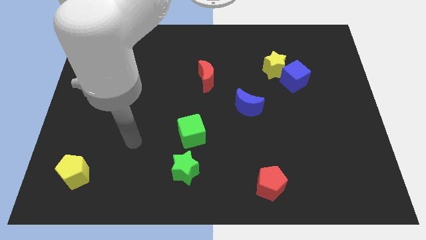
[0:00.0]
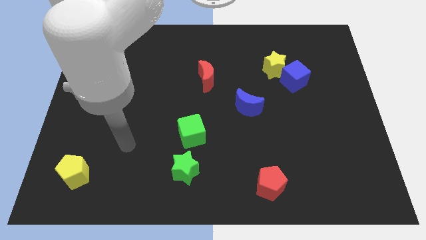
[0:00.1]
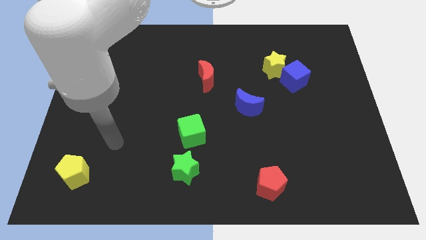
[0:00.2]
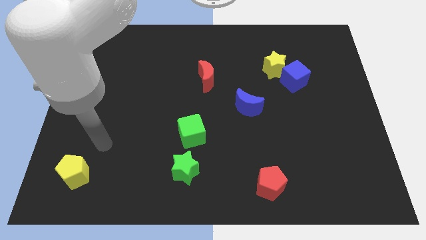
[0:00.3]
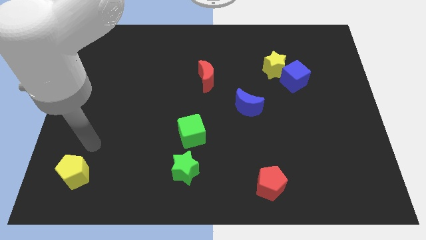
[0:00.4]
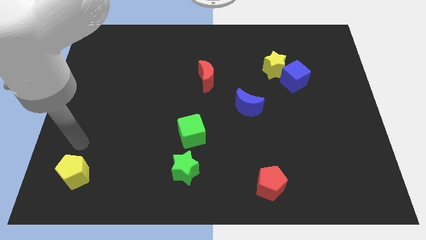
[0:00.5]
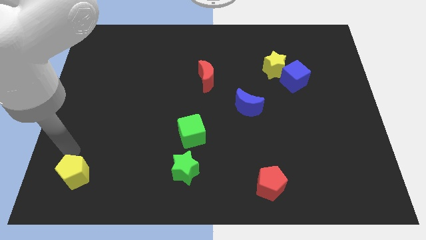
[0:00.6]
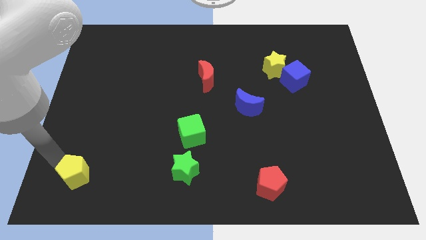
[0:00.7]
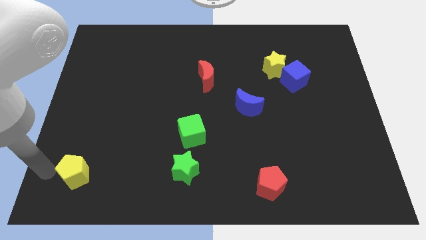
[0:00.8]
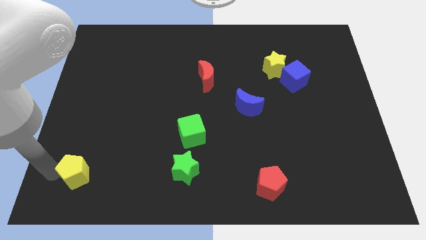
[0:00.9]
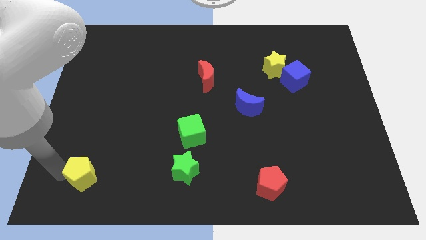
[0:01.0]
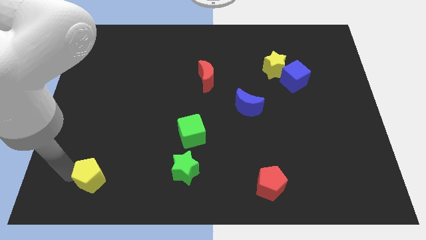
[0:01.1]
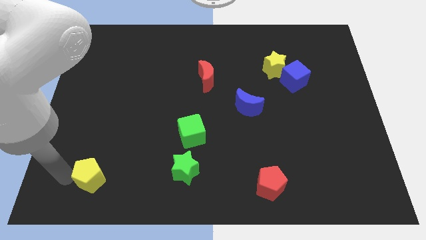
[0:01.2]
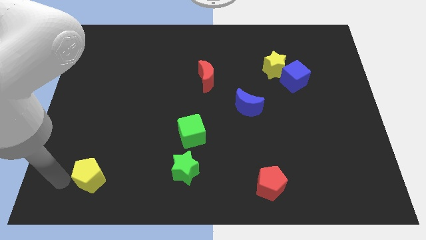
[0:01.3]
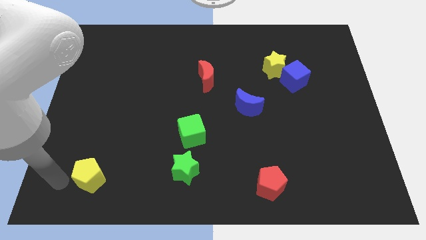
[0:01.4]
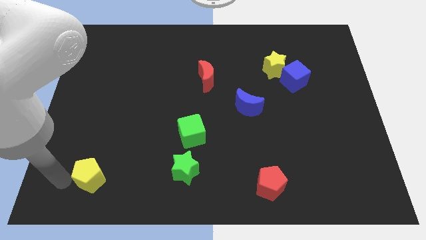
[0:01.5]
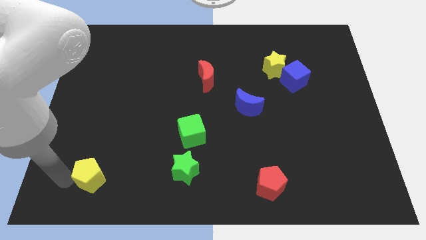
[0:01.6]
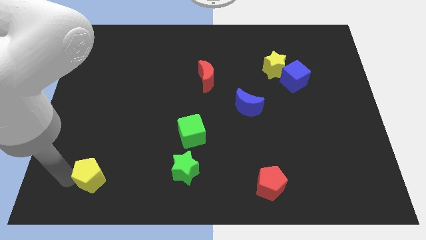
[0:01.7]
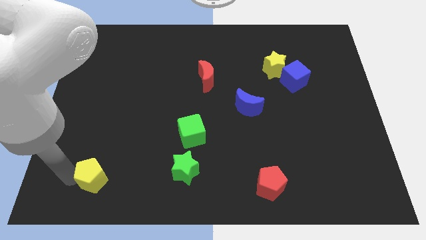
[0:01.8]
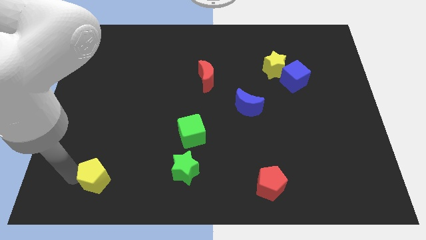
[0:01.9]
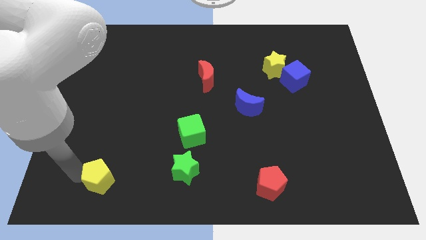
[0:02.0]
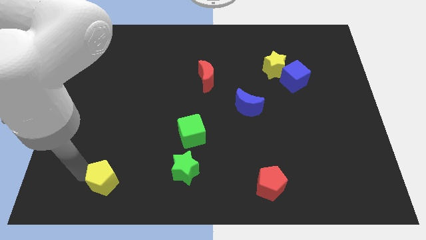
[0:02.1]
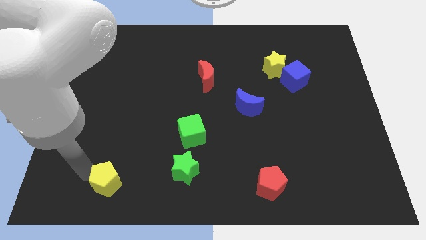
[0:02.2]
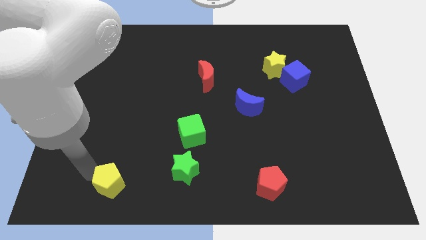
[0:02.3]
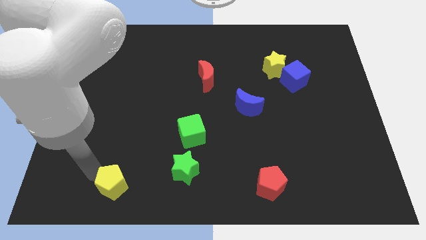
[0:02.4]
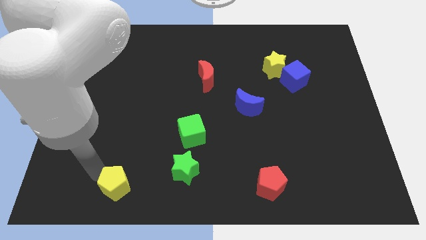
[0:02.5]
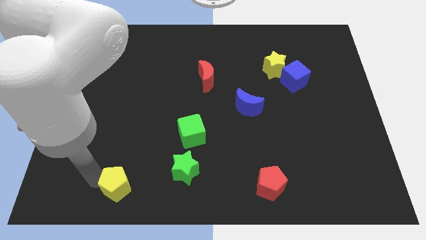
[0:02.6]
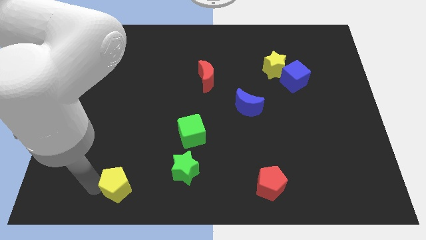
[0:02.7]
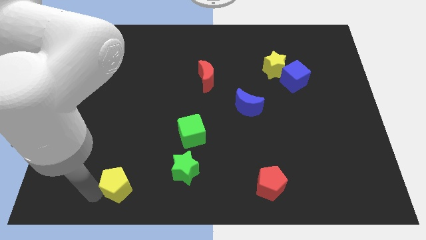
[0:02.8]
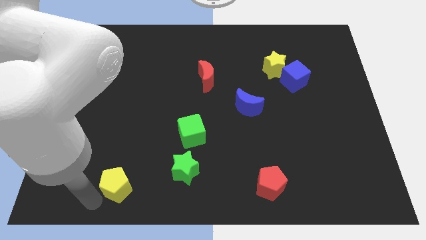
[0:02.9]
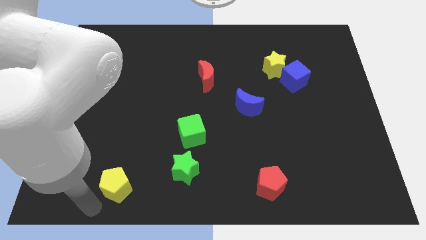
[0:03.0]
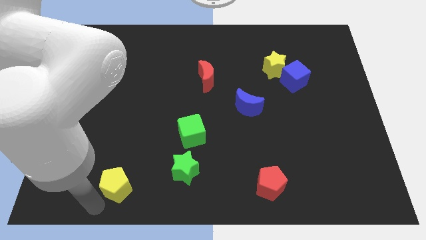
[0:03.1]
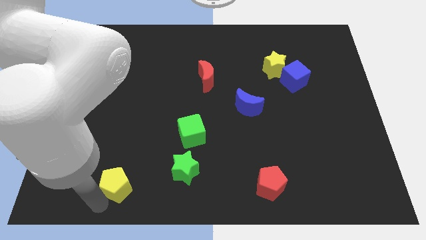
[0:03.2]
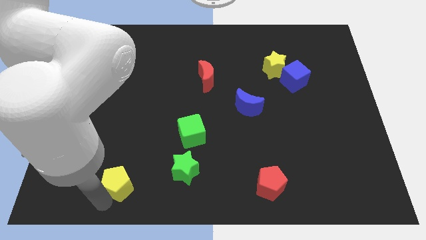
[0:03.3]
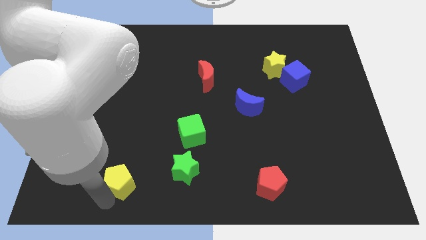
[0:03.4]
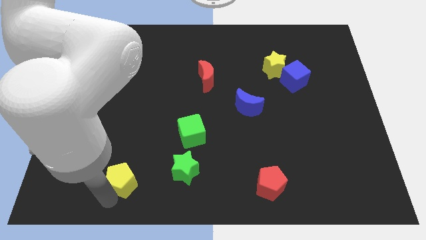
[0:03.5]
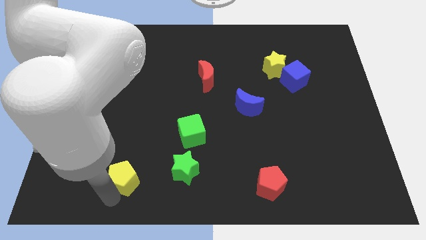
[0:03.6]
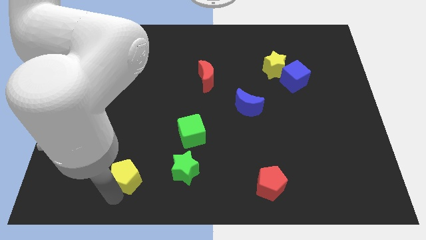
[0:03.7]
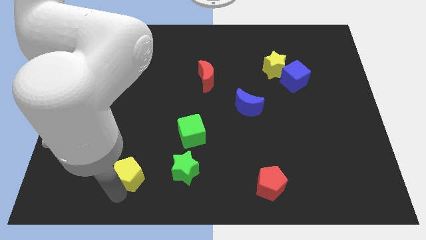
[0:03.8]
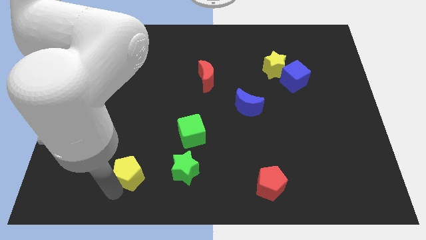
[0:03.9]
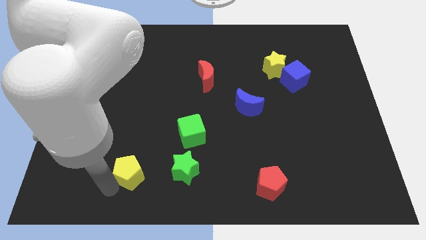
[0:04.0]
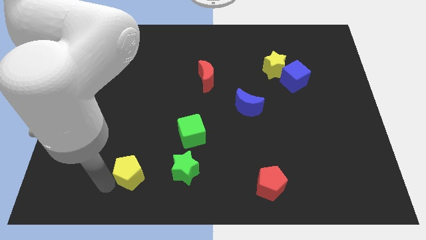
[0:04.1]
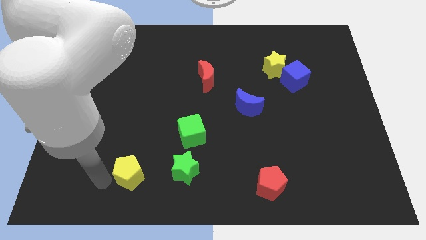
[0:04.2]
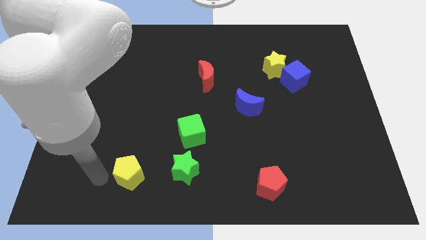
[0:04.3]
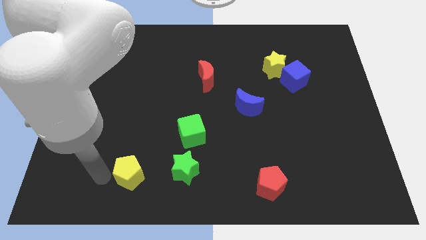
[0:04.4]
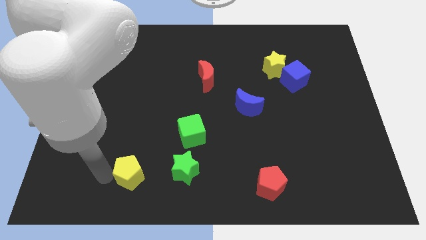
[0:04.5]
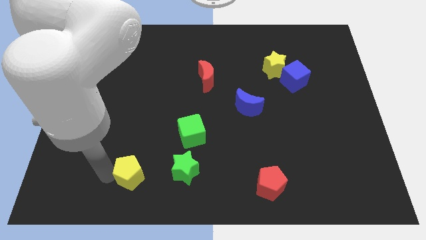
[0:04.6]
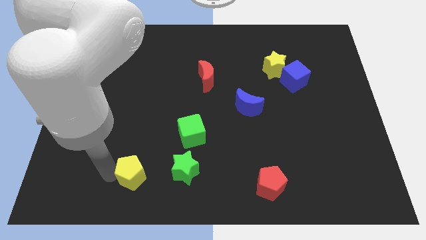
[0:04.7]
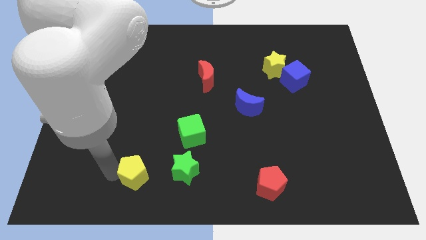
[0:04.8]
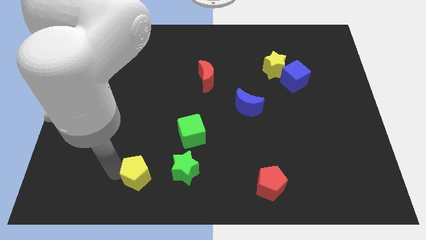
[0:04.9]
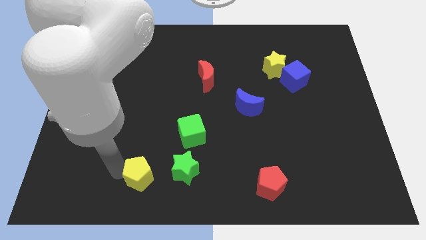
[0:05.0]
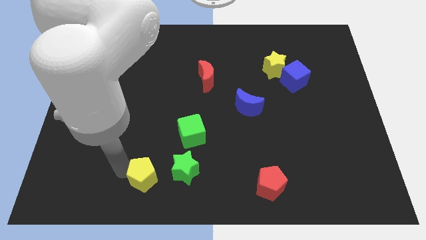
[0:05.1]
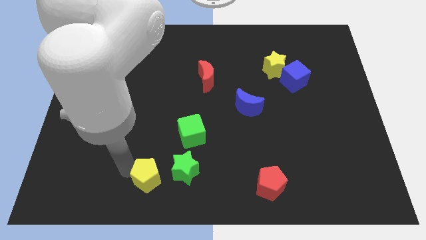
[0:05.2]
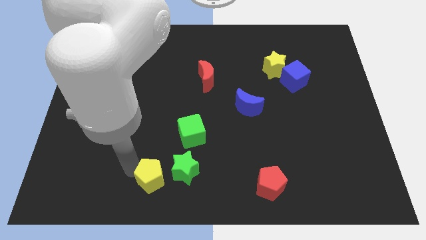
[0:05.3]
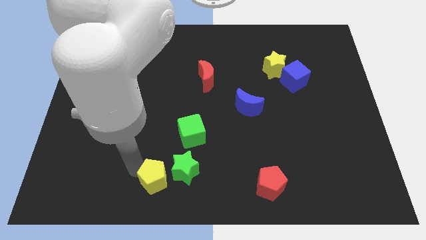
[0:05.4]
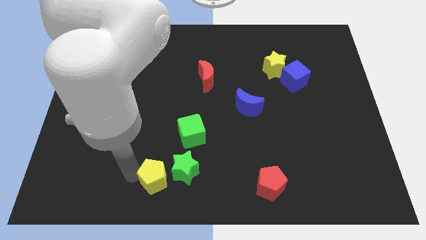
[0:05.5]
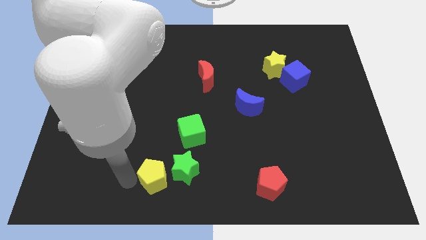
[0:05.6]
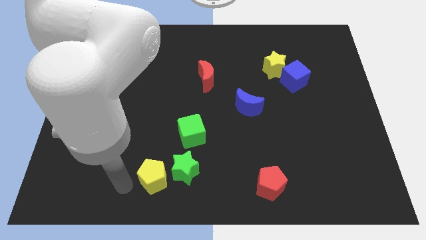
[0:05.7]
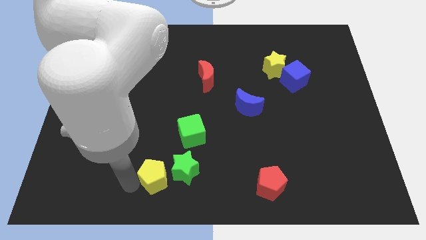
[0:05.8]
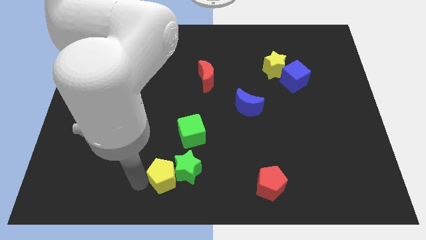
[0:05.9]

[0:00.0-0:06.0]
move the yellow pentagon next to the green star

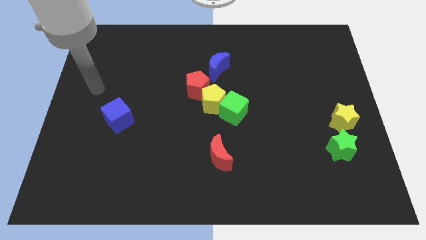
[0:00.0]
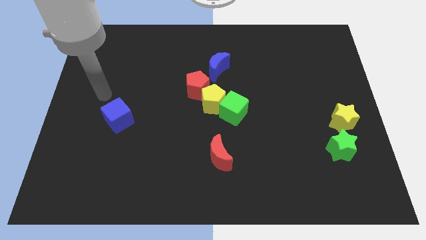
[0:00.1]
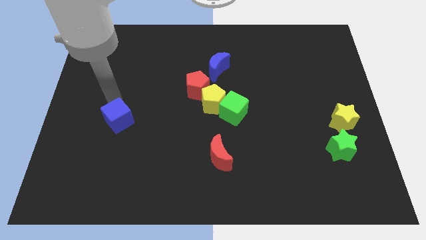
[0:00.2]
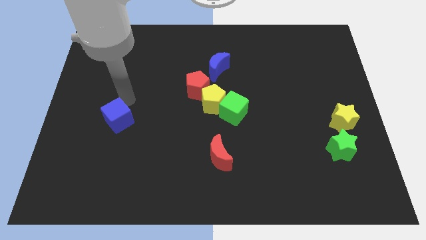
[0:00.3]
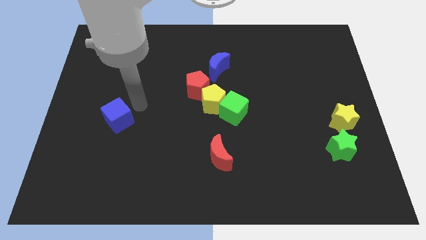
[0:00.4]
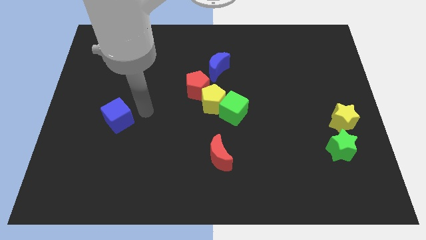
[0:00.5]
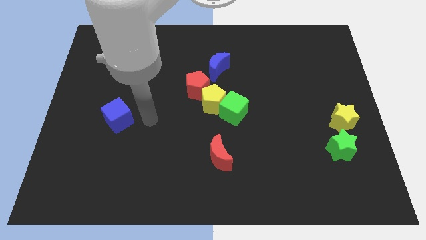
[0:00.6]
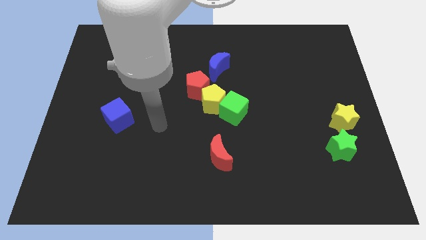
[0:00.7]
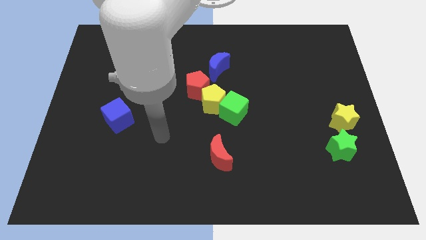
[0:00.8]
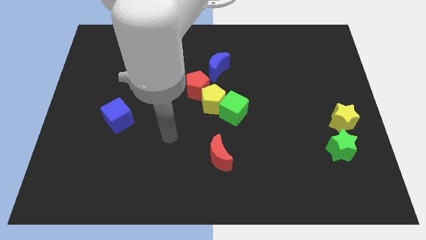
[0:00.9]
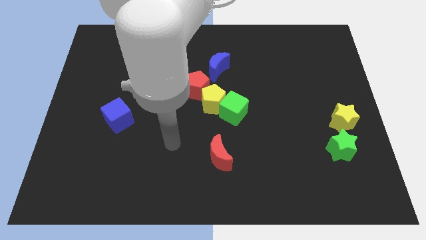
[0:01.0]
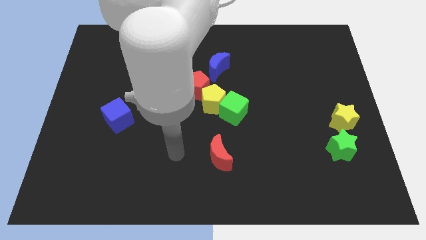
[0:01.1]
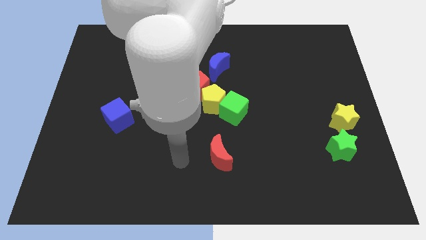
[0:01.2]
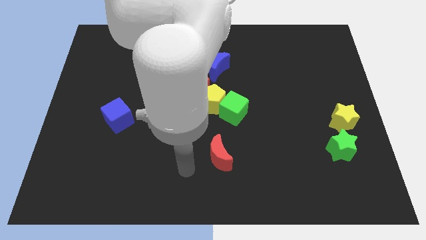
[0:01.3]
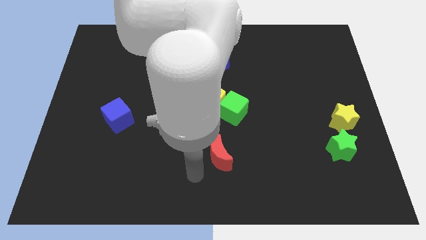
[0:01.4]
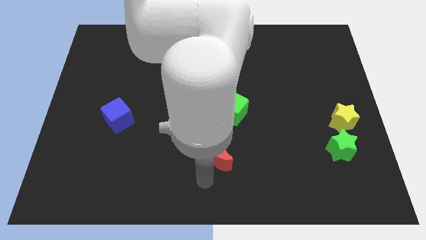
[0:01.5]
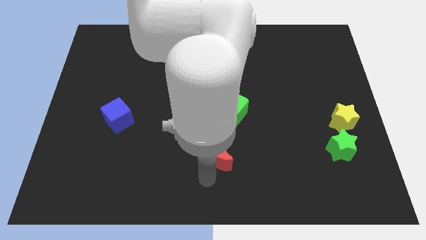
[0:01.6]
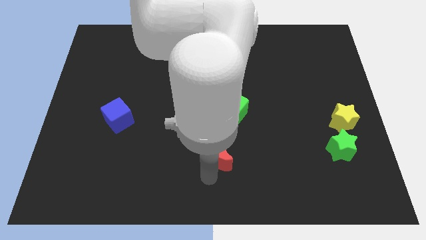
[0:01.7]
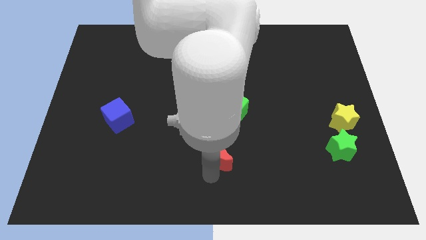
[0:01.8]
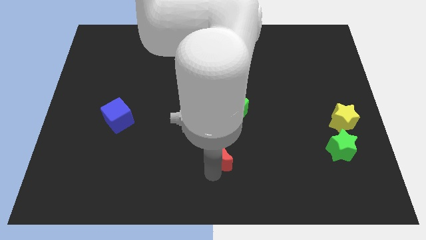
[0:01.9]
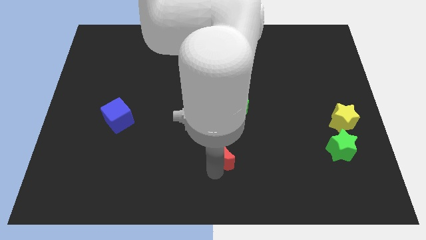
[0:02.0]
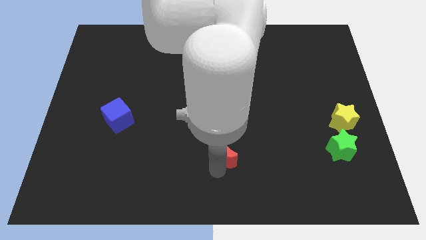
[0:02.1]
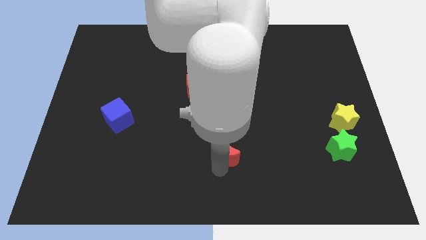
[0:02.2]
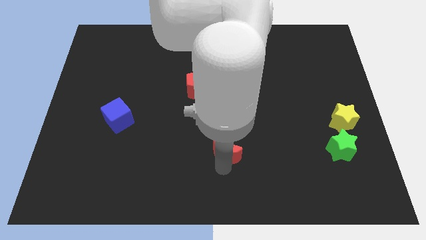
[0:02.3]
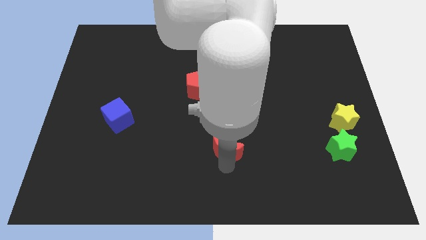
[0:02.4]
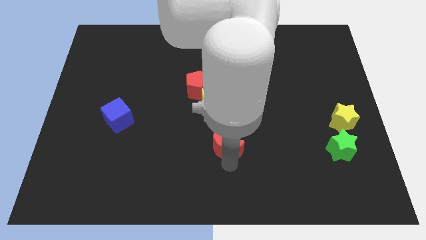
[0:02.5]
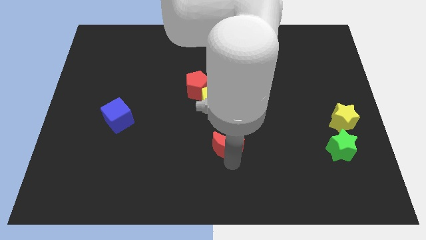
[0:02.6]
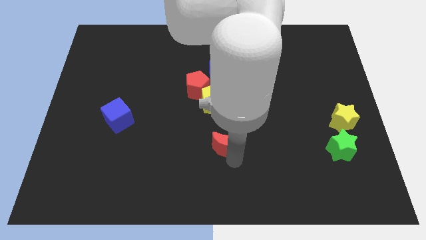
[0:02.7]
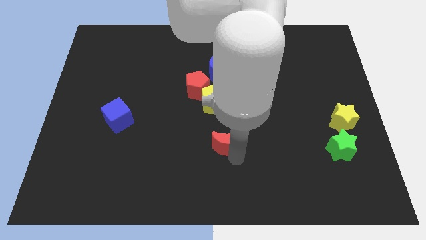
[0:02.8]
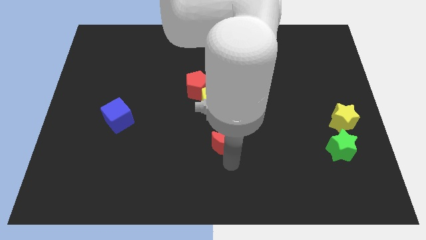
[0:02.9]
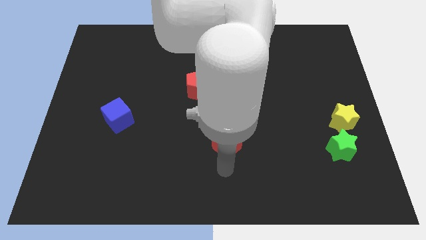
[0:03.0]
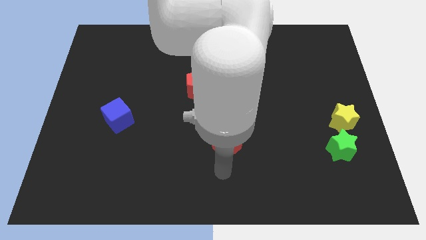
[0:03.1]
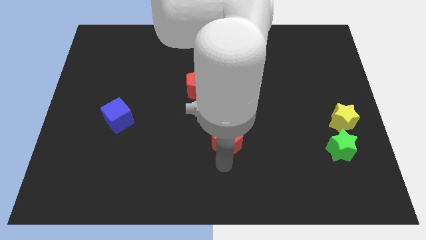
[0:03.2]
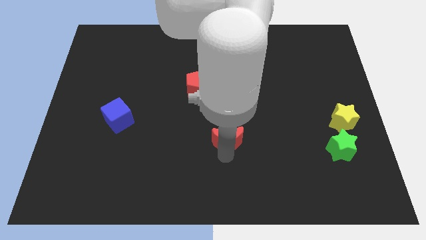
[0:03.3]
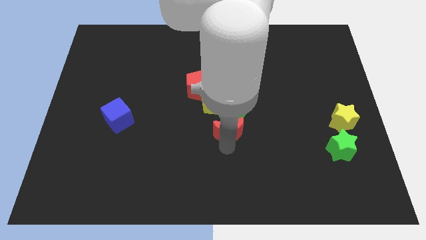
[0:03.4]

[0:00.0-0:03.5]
put the red moon close to the green cube
